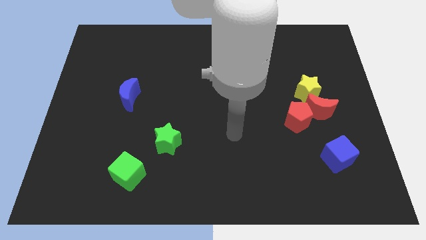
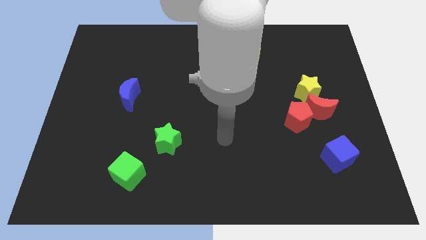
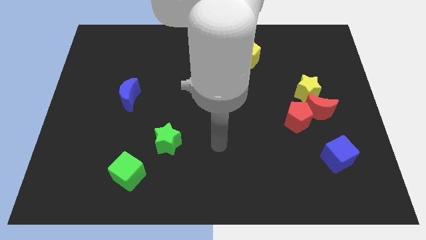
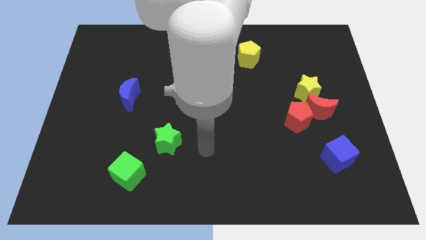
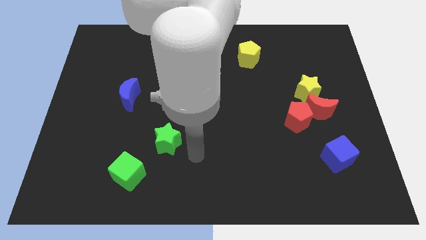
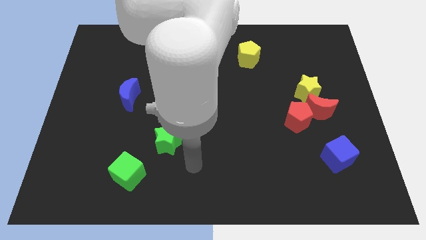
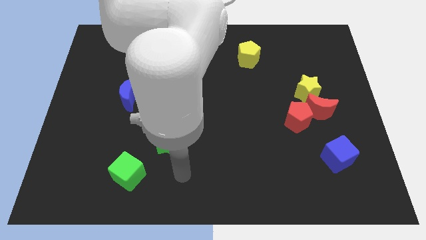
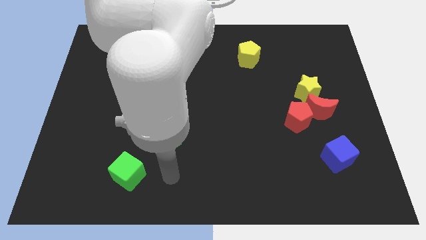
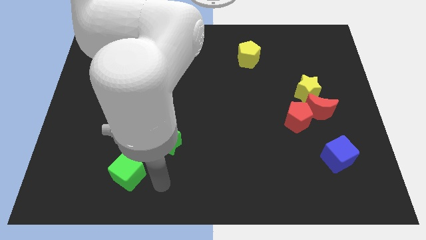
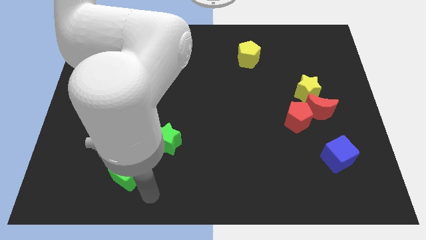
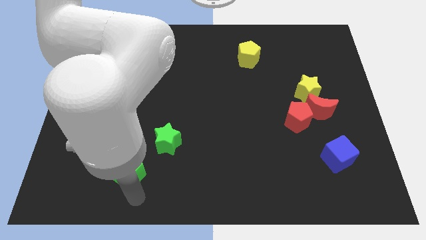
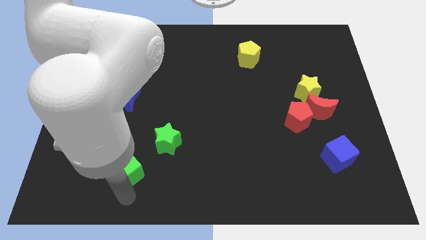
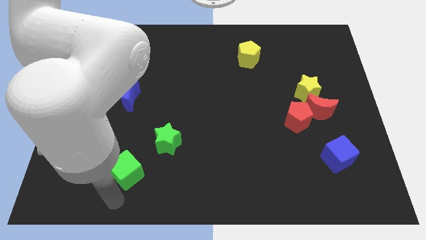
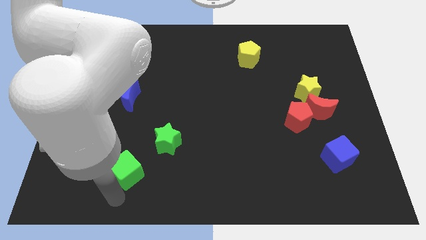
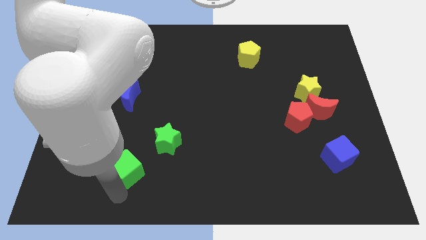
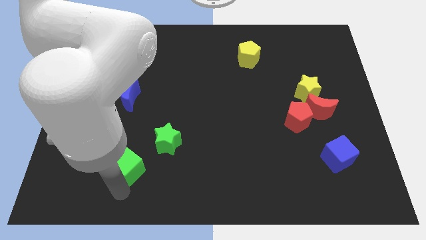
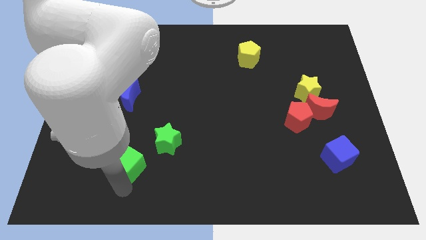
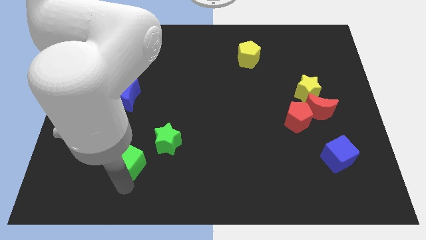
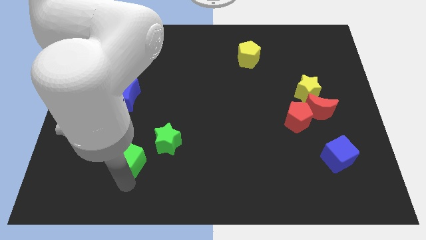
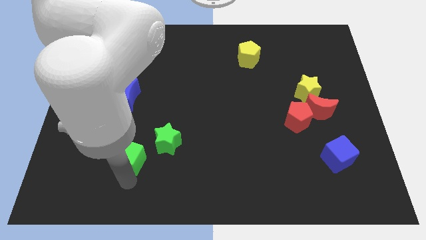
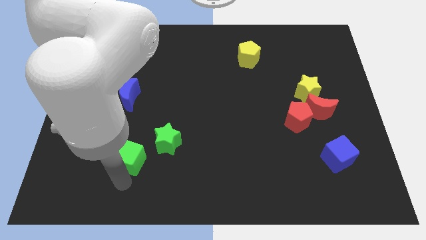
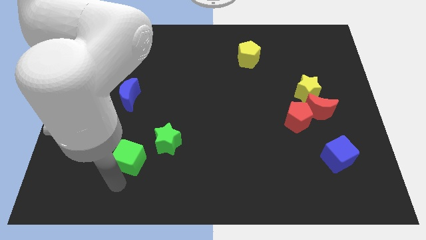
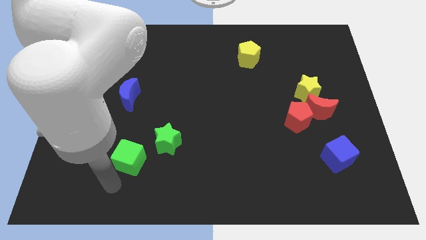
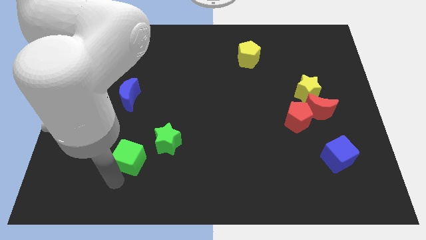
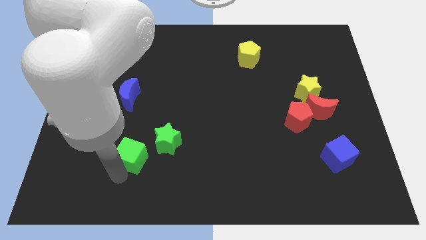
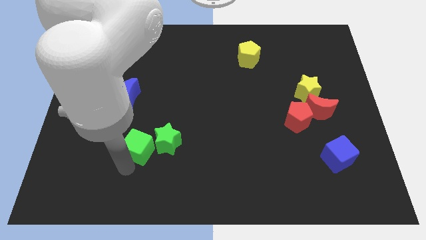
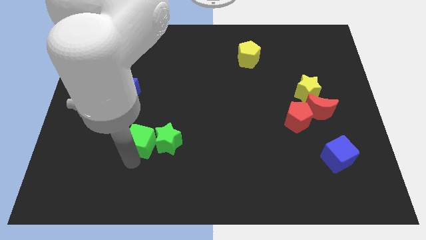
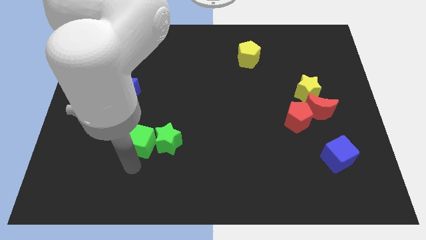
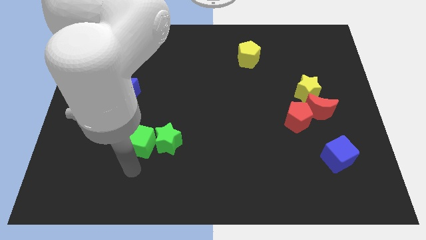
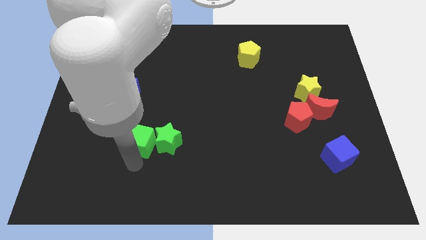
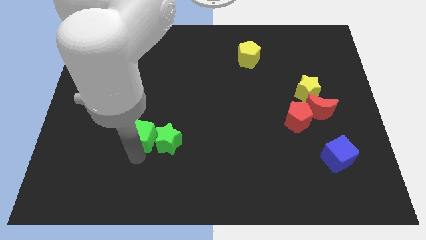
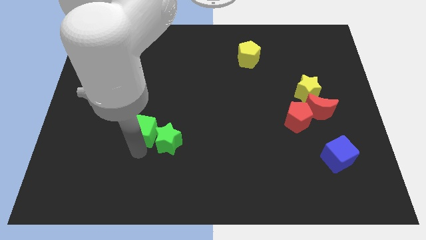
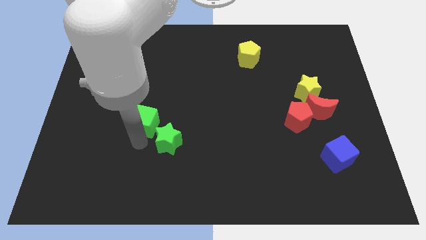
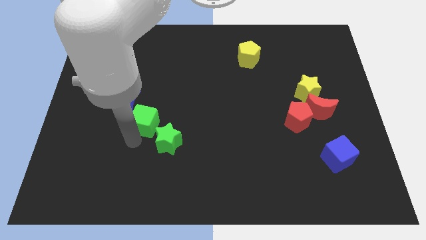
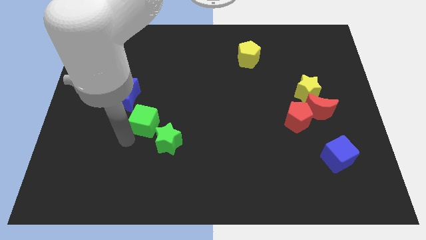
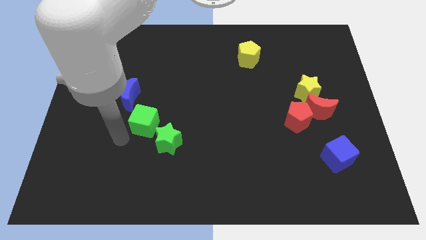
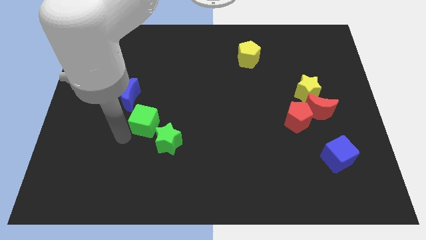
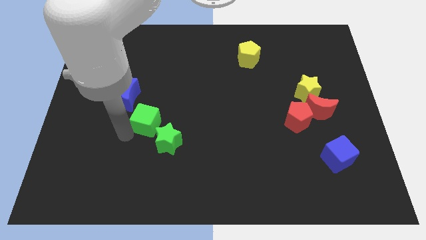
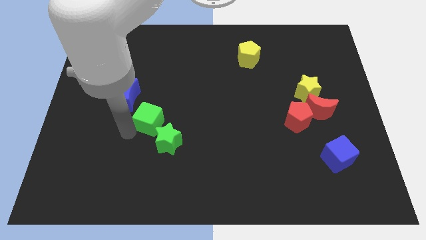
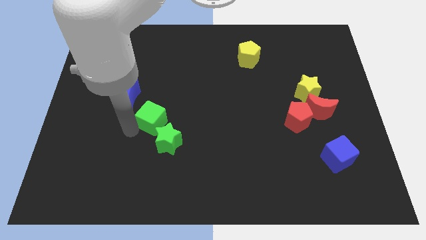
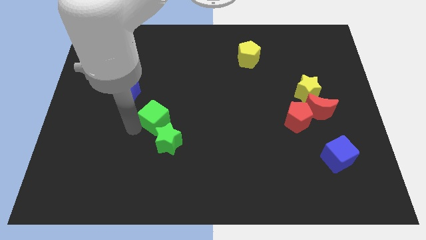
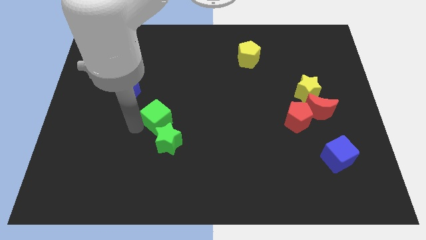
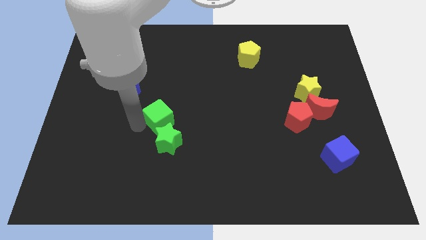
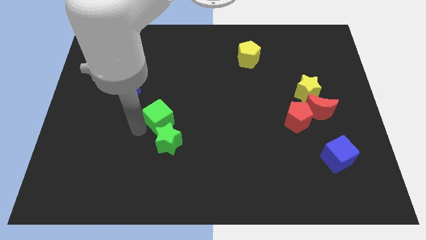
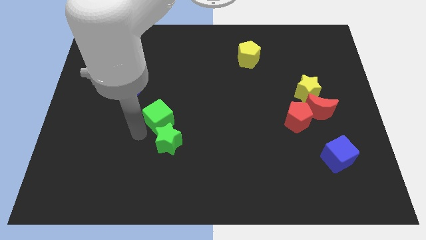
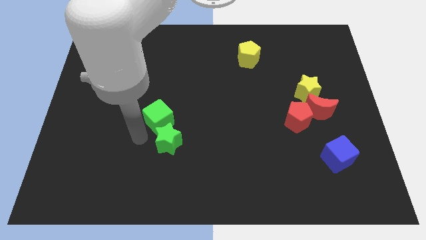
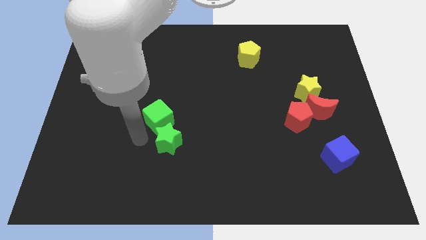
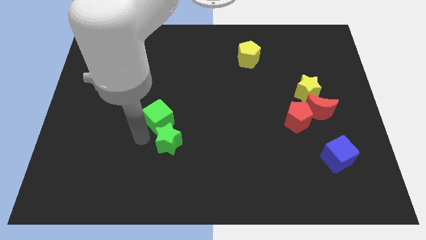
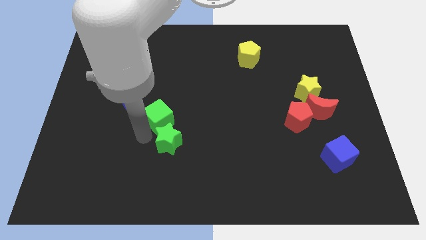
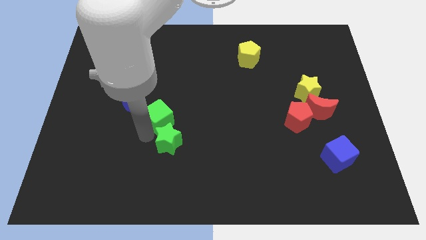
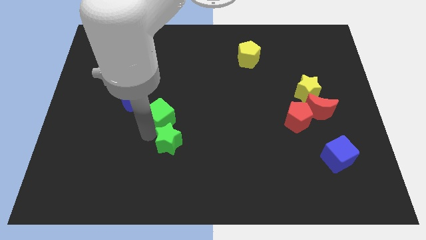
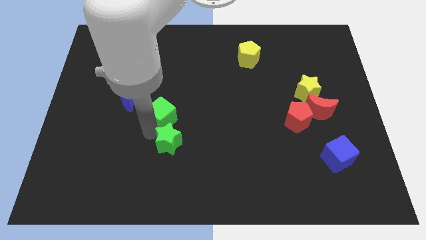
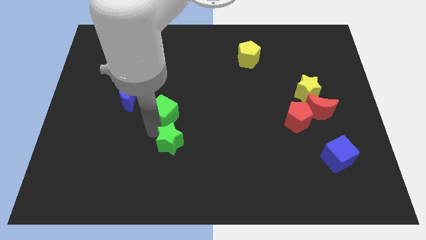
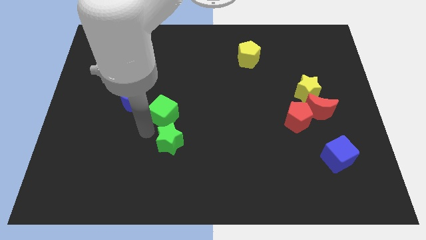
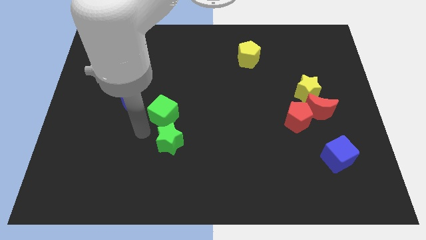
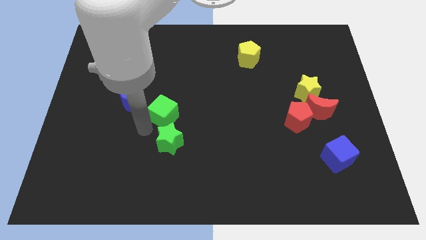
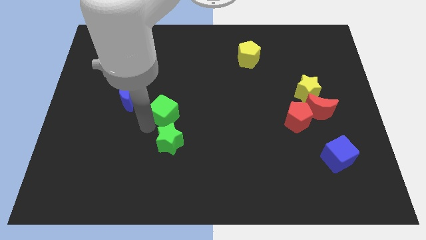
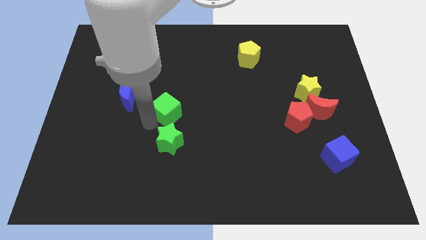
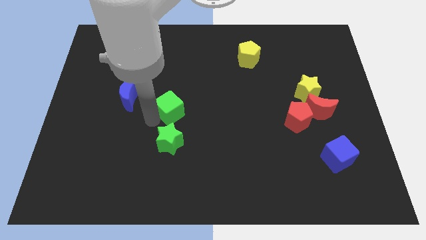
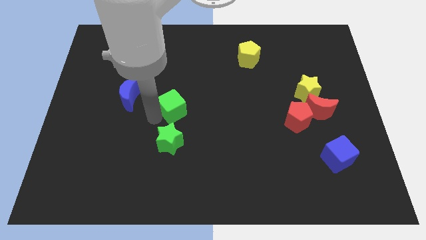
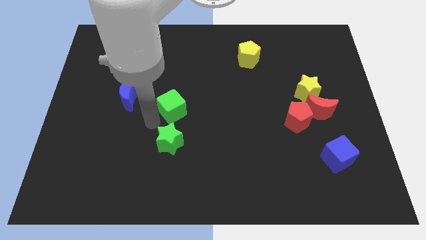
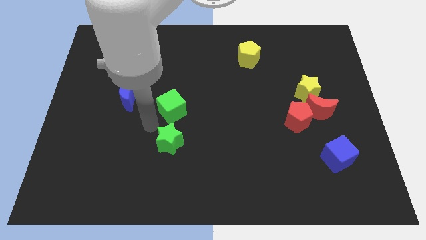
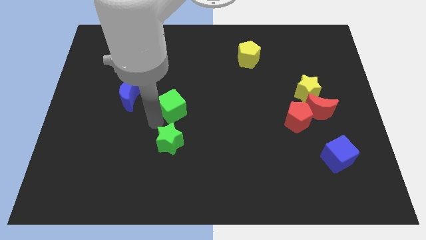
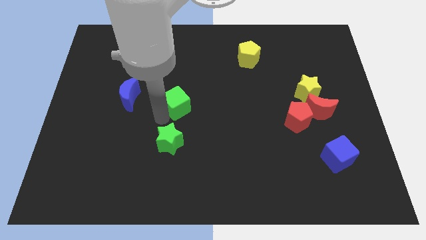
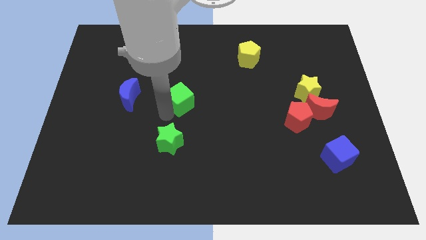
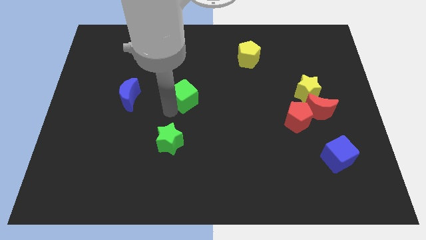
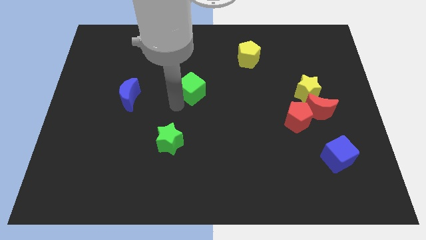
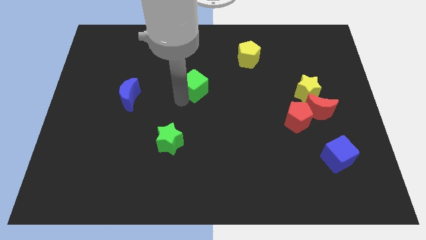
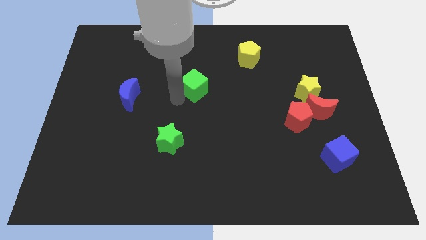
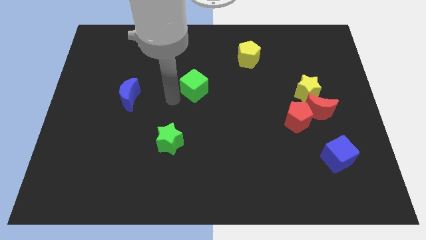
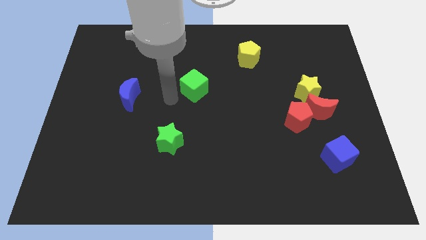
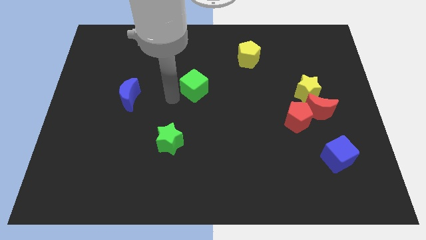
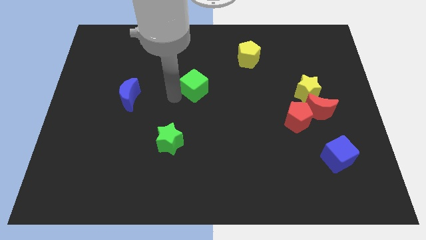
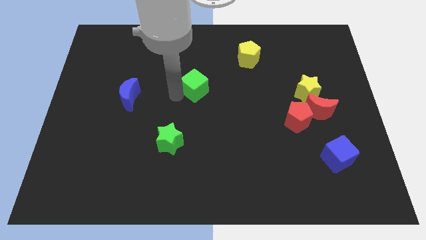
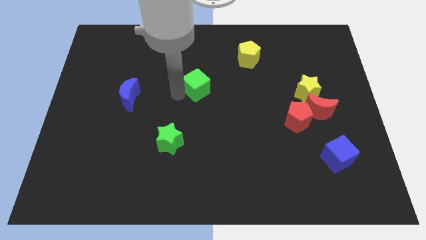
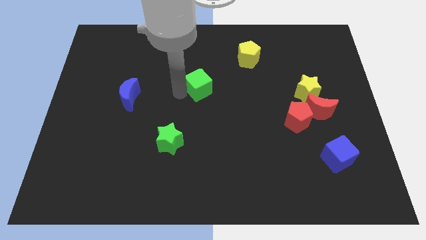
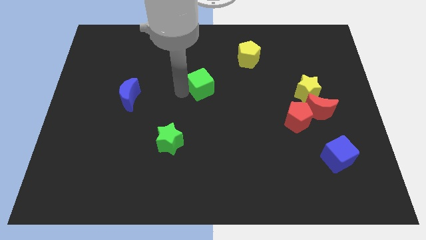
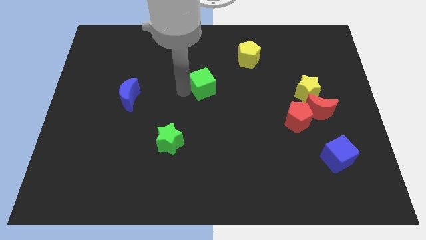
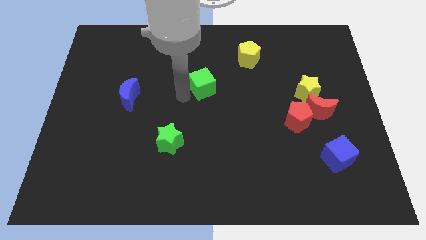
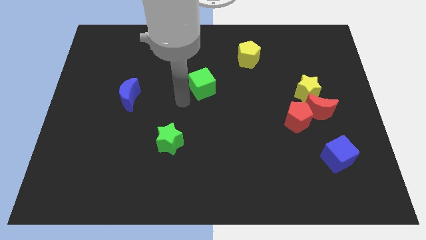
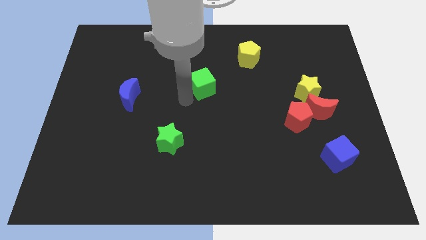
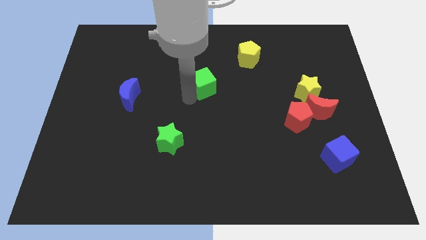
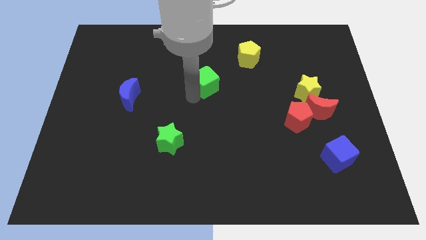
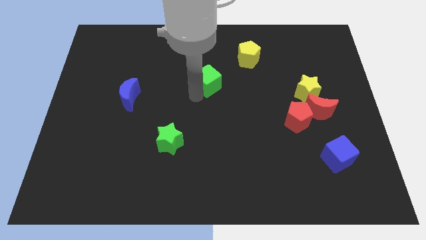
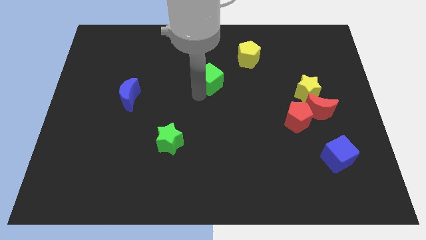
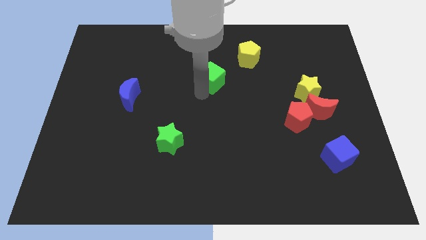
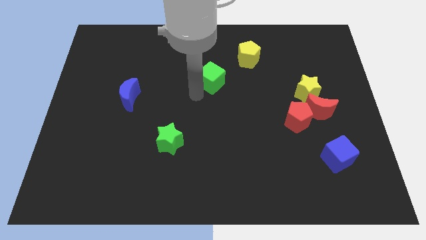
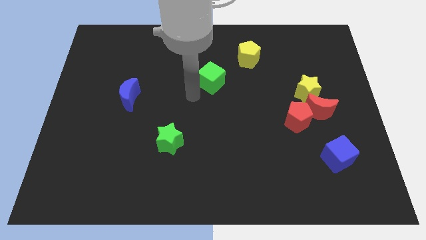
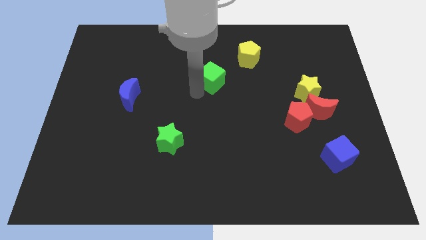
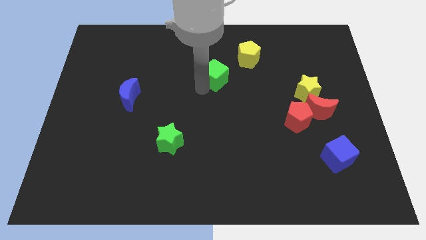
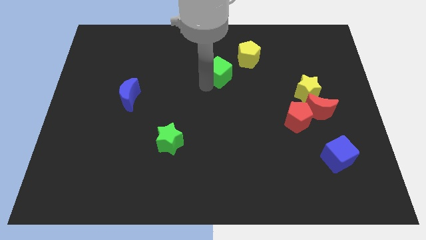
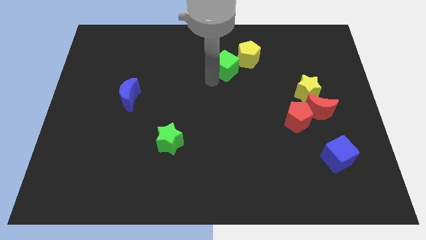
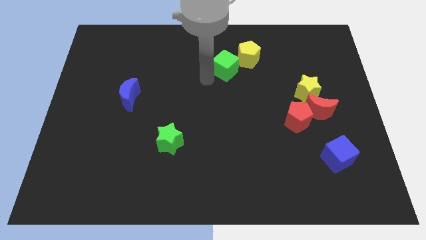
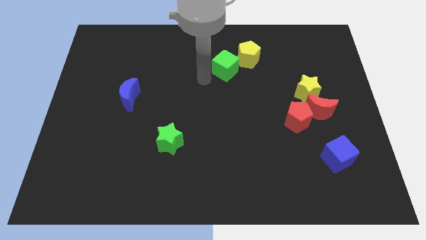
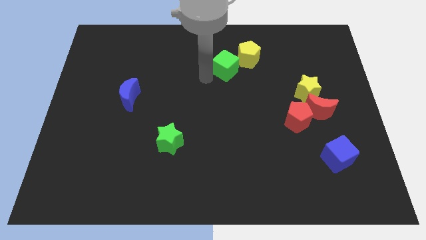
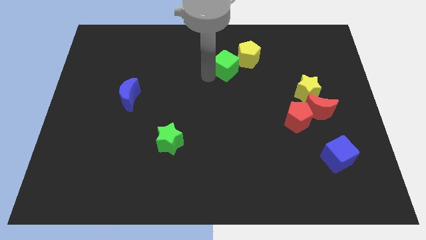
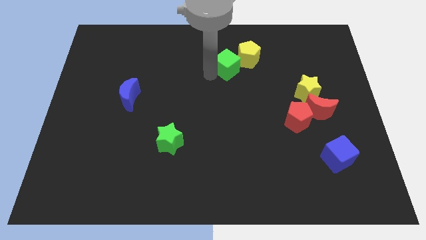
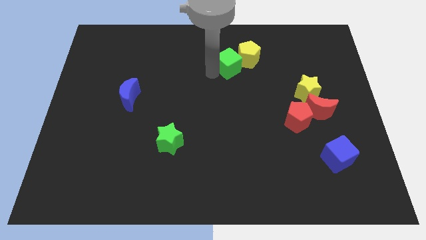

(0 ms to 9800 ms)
push the green cube next to the yellow pentagon
